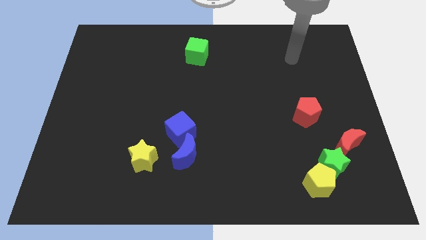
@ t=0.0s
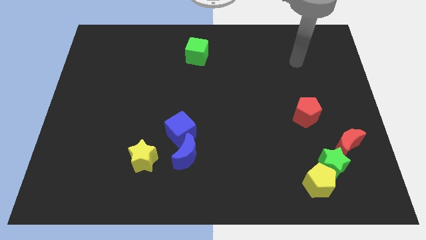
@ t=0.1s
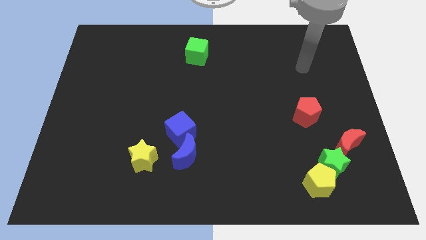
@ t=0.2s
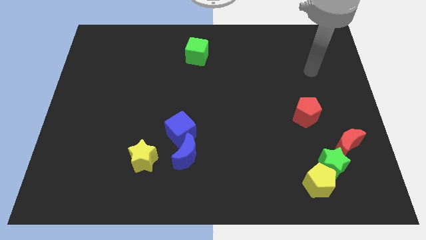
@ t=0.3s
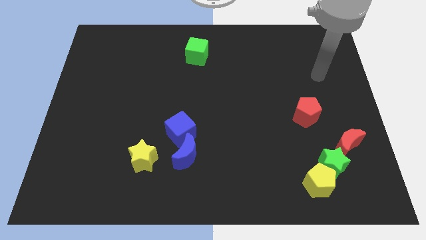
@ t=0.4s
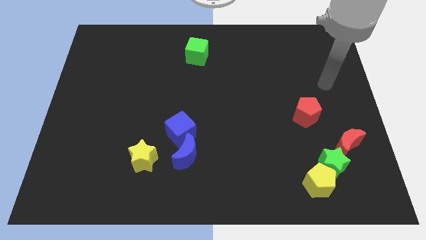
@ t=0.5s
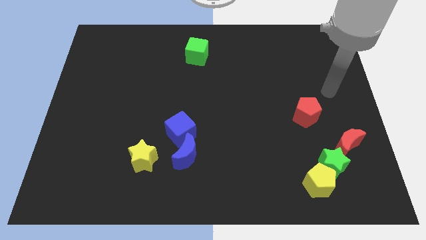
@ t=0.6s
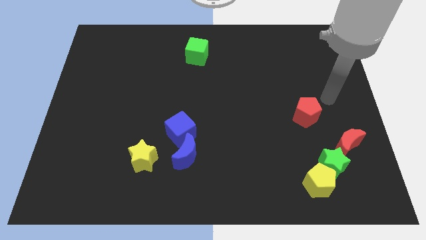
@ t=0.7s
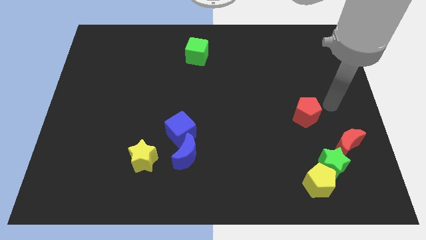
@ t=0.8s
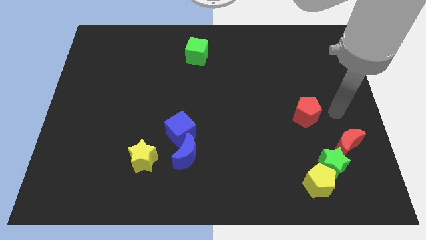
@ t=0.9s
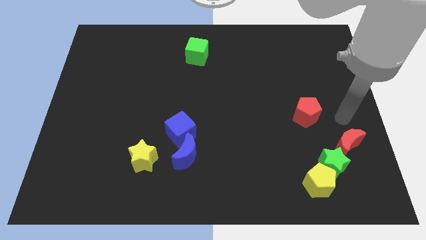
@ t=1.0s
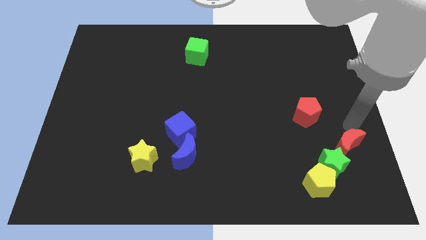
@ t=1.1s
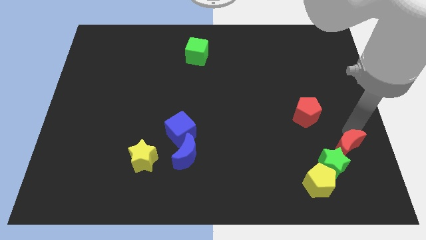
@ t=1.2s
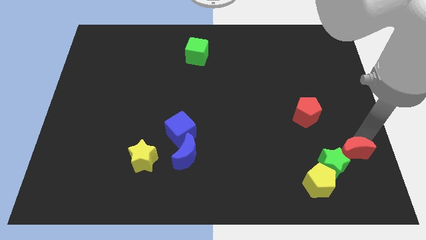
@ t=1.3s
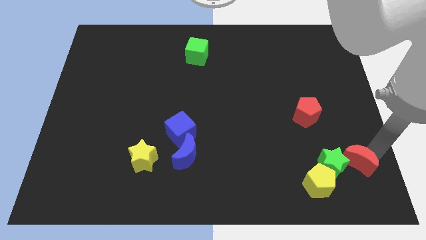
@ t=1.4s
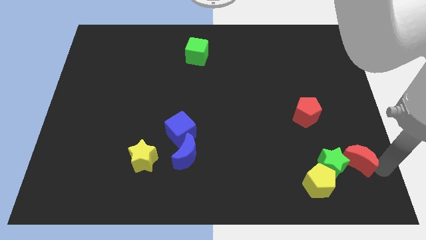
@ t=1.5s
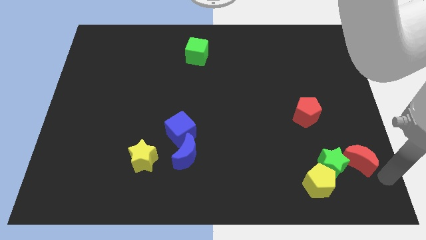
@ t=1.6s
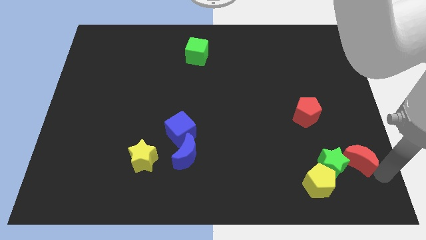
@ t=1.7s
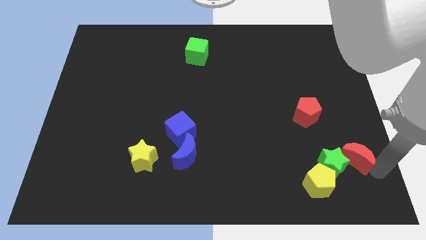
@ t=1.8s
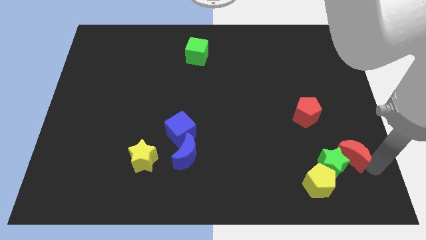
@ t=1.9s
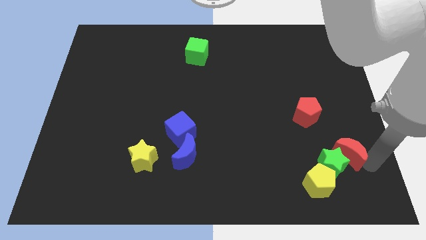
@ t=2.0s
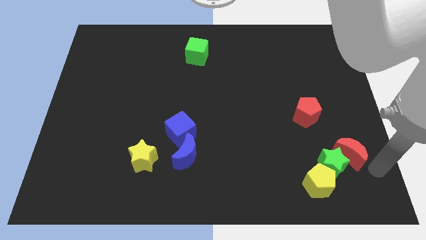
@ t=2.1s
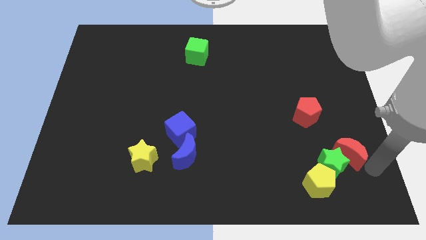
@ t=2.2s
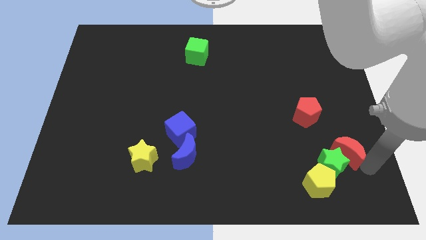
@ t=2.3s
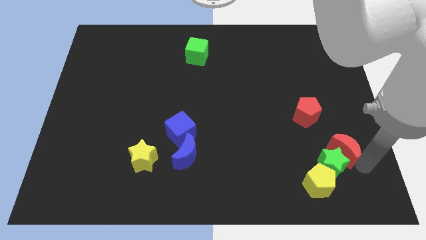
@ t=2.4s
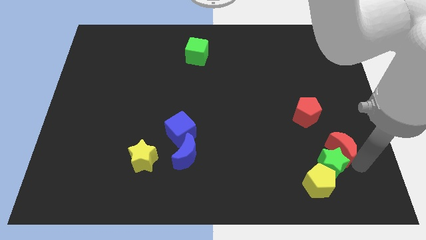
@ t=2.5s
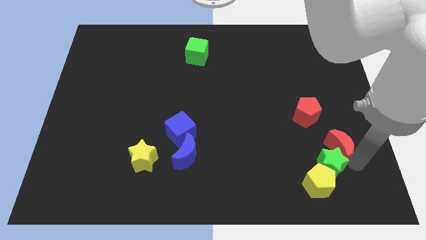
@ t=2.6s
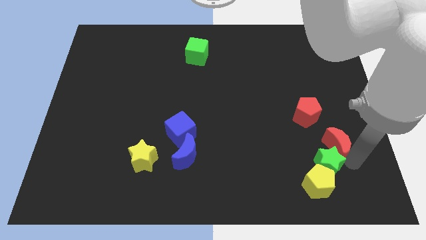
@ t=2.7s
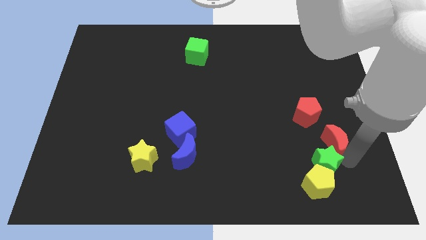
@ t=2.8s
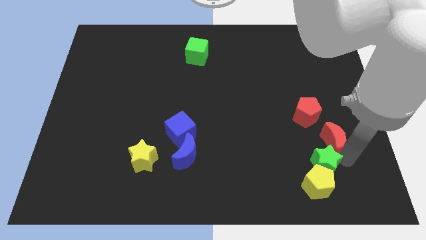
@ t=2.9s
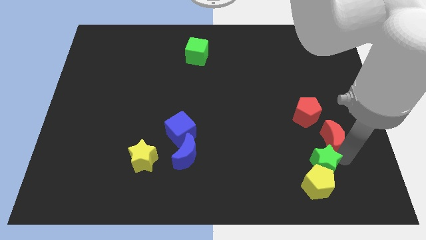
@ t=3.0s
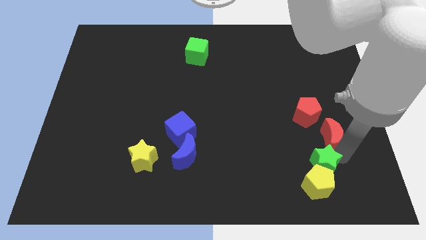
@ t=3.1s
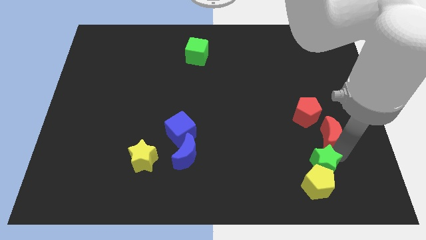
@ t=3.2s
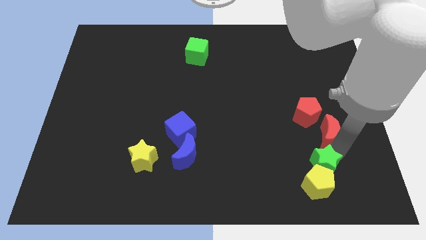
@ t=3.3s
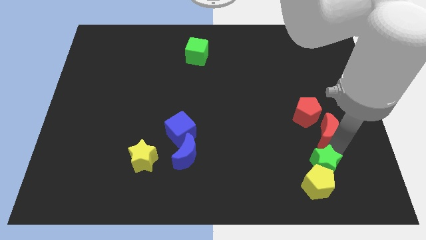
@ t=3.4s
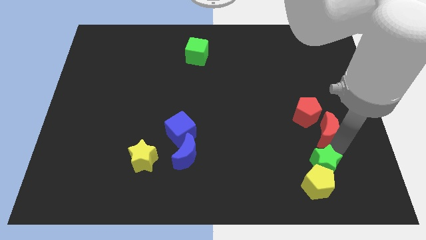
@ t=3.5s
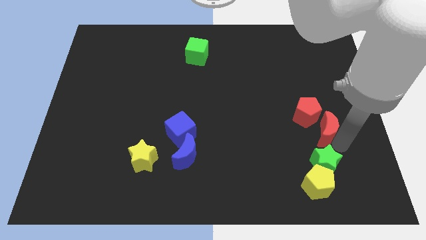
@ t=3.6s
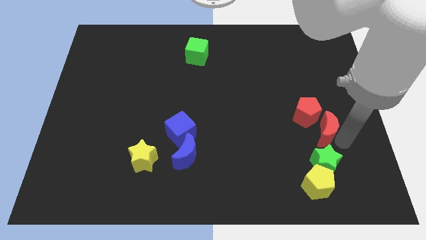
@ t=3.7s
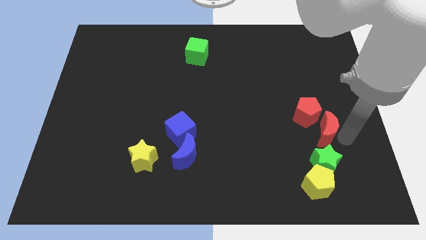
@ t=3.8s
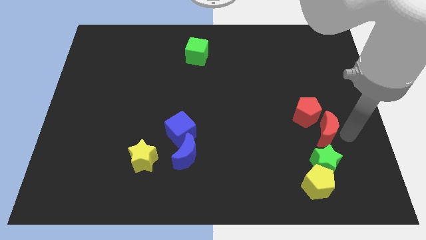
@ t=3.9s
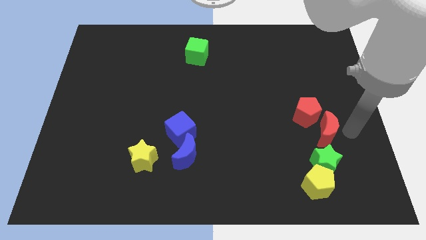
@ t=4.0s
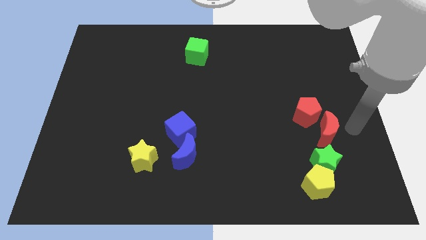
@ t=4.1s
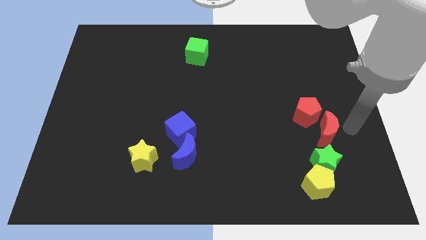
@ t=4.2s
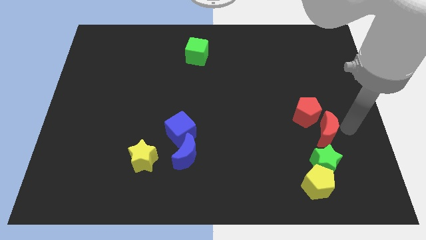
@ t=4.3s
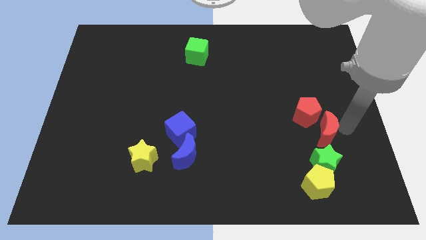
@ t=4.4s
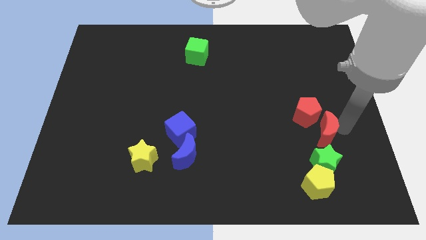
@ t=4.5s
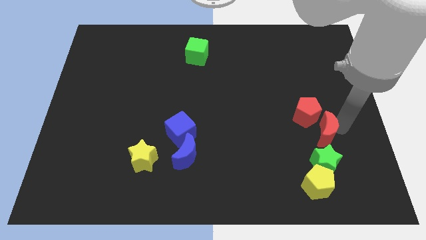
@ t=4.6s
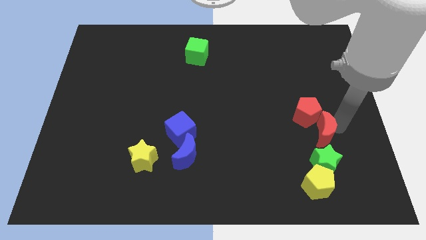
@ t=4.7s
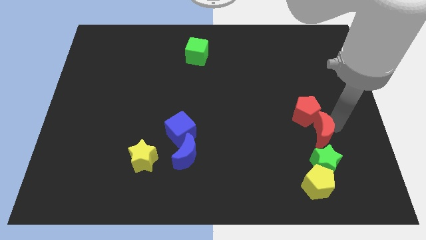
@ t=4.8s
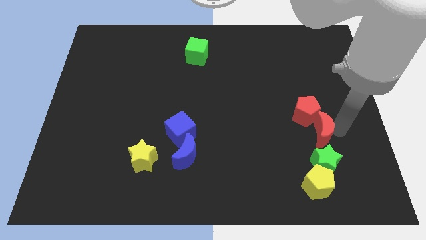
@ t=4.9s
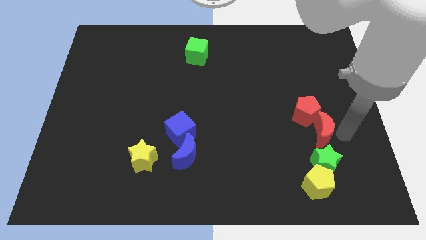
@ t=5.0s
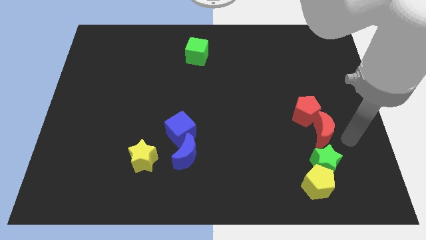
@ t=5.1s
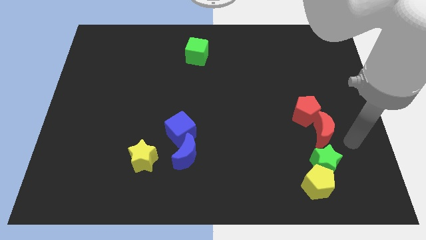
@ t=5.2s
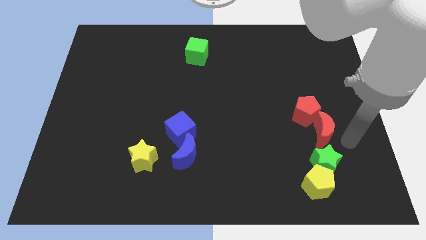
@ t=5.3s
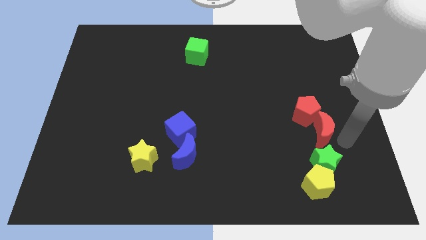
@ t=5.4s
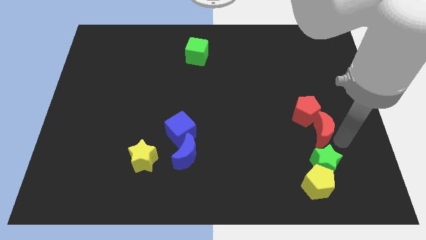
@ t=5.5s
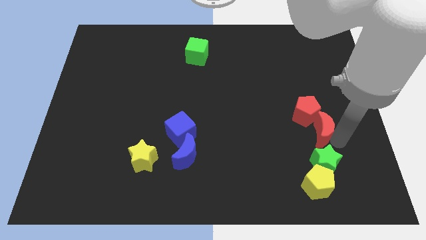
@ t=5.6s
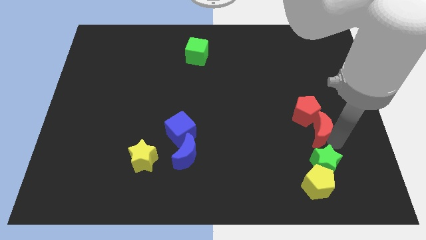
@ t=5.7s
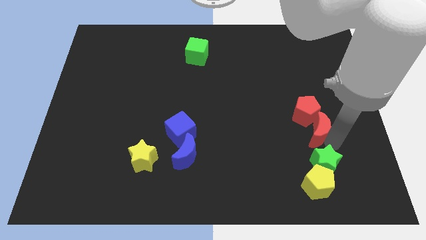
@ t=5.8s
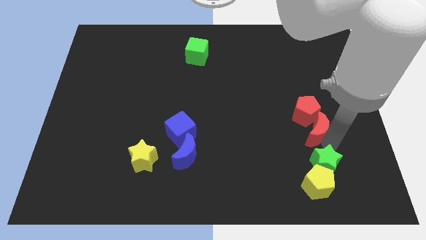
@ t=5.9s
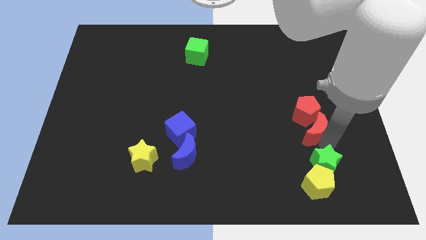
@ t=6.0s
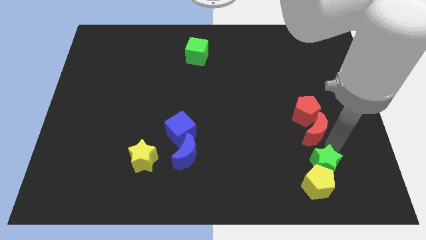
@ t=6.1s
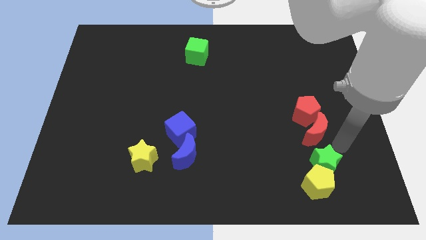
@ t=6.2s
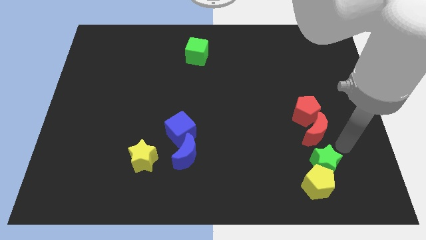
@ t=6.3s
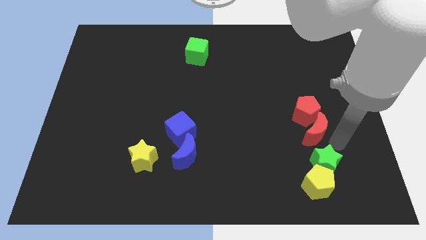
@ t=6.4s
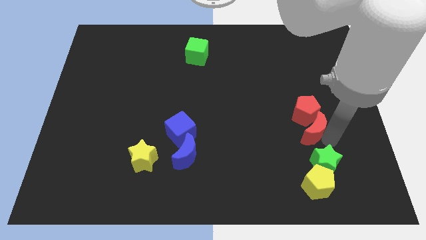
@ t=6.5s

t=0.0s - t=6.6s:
push the red moon somewhat up and to the left

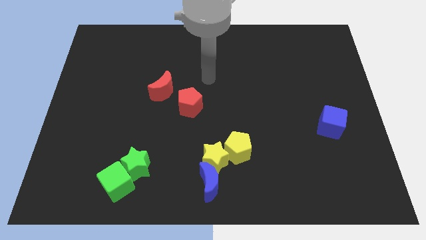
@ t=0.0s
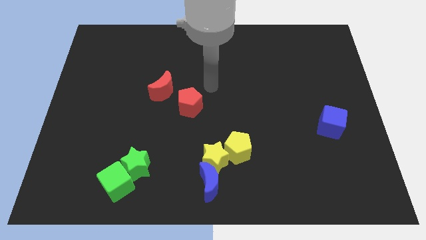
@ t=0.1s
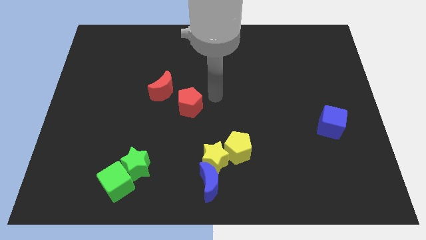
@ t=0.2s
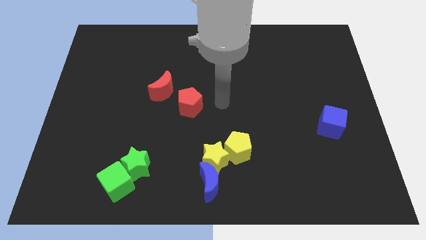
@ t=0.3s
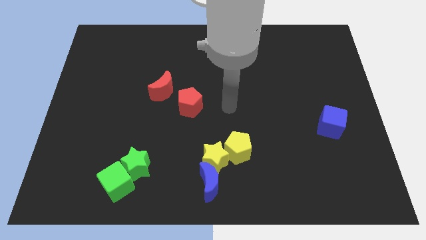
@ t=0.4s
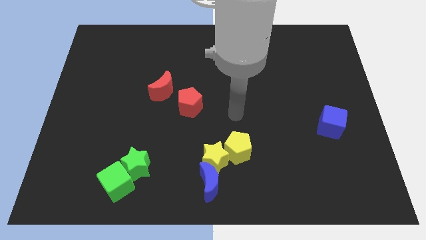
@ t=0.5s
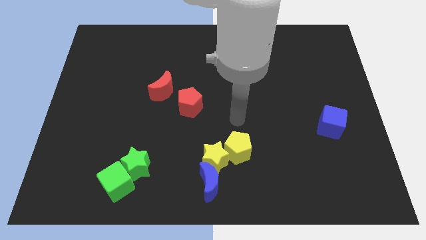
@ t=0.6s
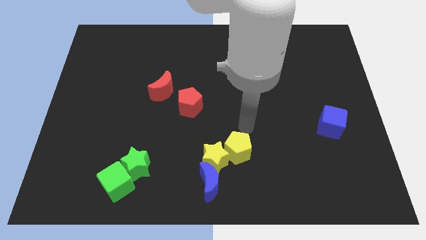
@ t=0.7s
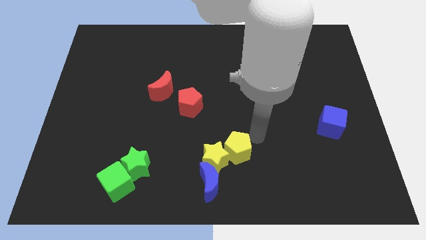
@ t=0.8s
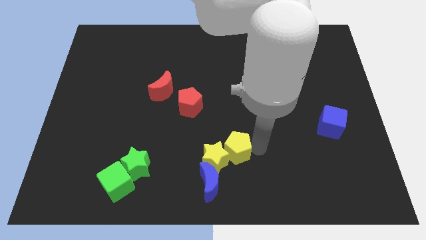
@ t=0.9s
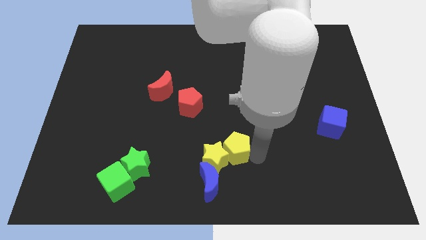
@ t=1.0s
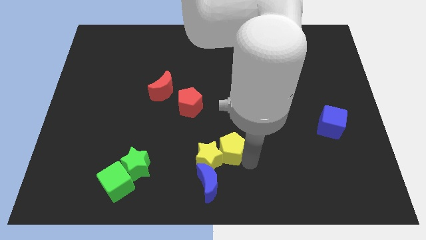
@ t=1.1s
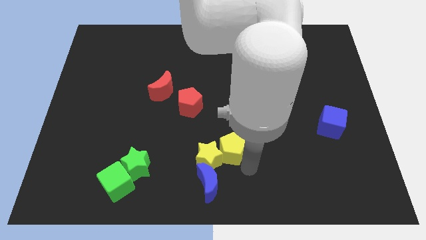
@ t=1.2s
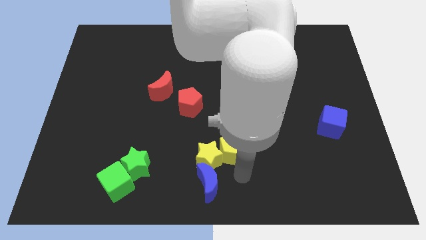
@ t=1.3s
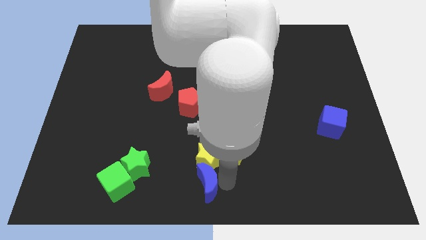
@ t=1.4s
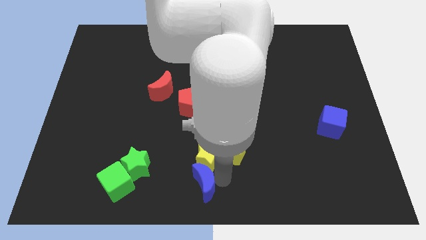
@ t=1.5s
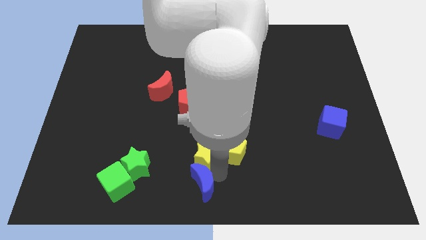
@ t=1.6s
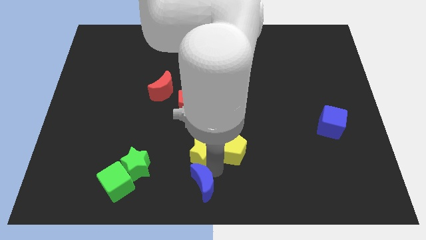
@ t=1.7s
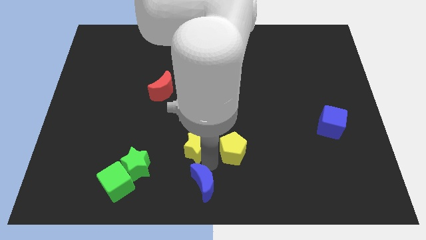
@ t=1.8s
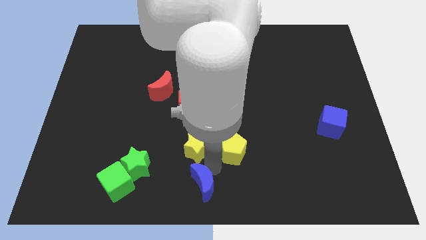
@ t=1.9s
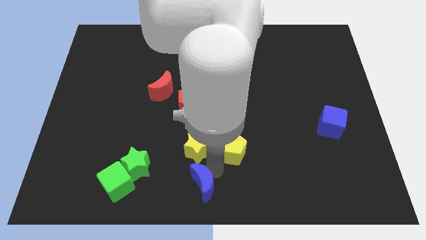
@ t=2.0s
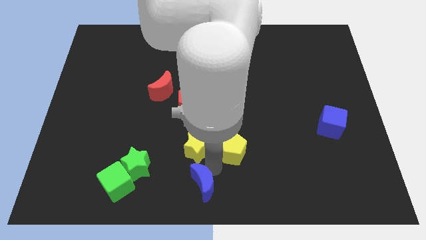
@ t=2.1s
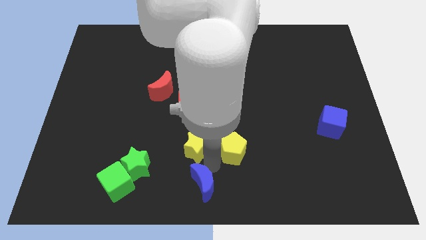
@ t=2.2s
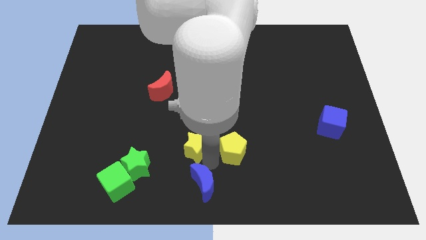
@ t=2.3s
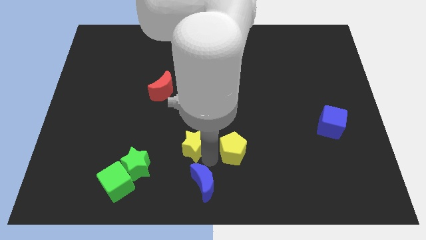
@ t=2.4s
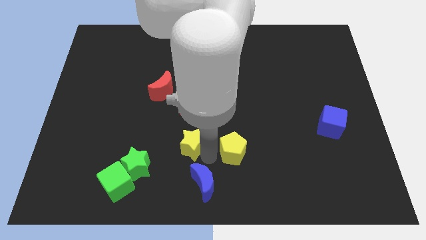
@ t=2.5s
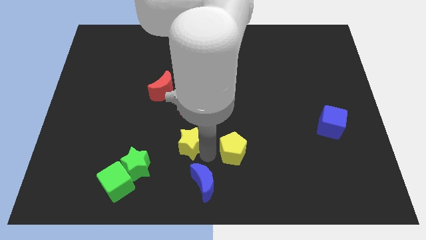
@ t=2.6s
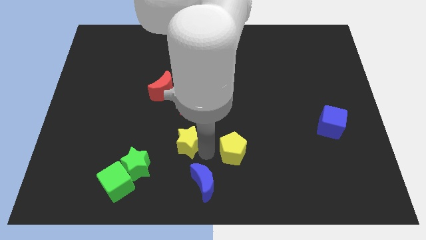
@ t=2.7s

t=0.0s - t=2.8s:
push the yellow star a little bit upwards and then to the left
